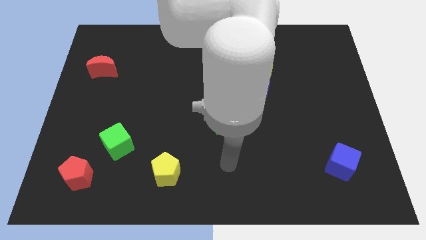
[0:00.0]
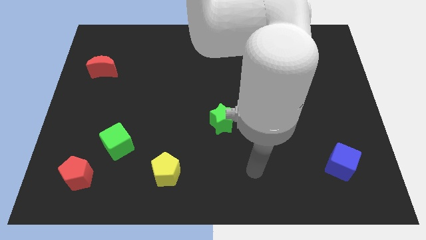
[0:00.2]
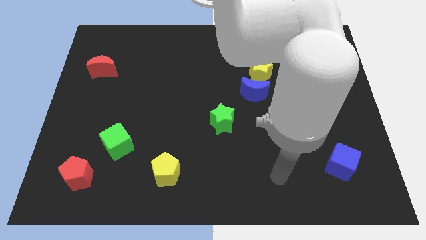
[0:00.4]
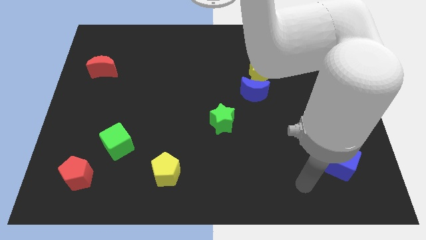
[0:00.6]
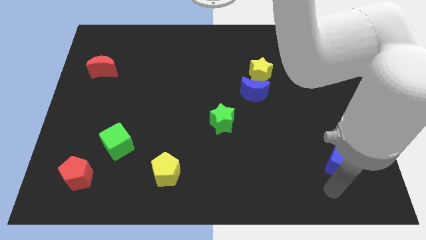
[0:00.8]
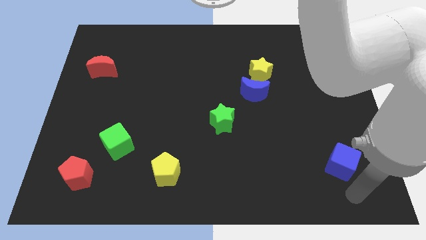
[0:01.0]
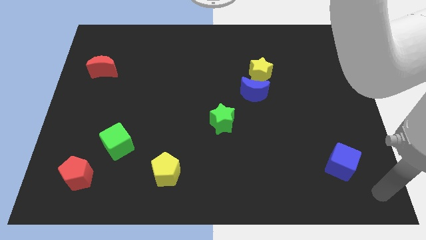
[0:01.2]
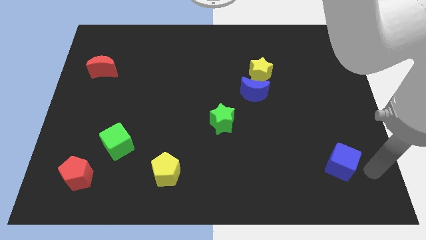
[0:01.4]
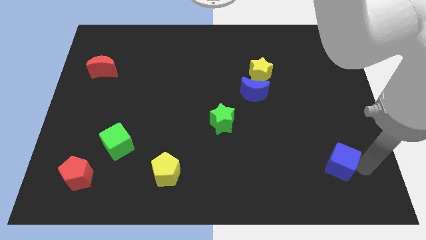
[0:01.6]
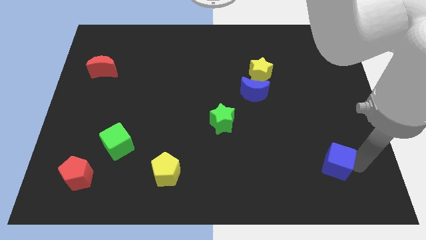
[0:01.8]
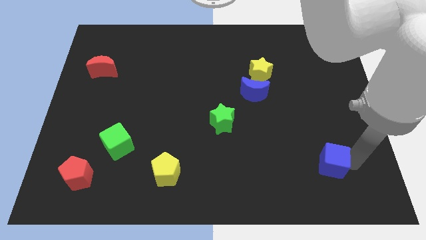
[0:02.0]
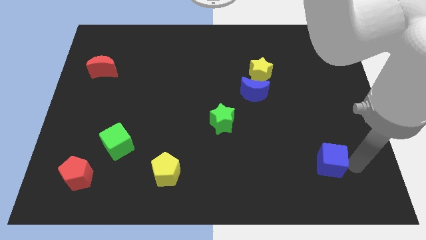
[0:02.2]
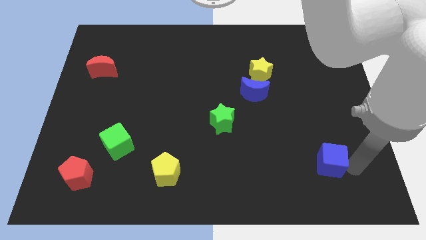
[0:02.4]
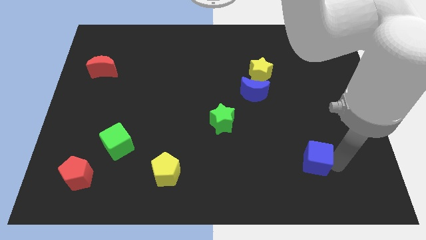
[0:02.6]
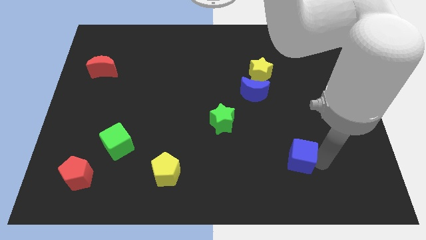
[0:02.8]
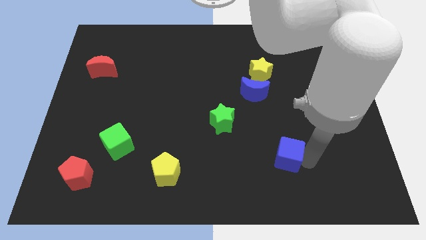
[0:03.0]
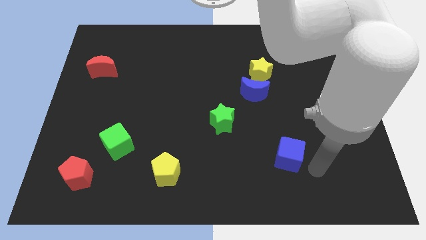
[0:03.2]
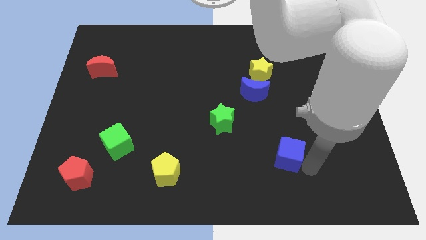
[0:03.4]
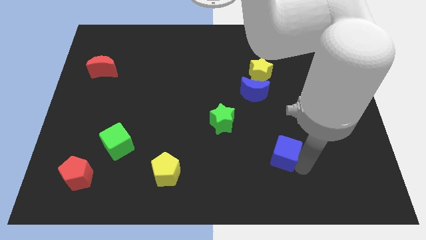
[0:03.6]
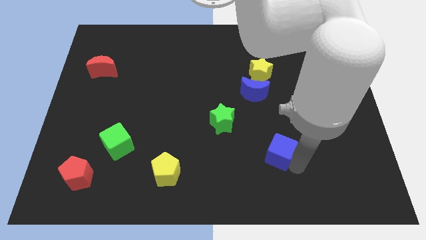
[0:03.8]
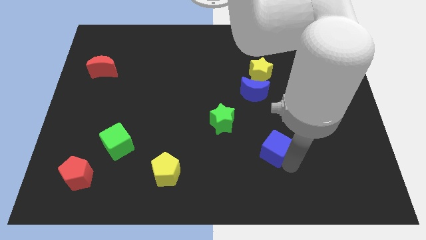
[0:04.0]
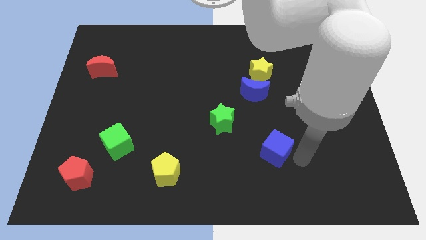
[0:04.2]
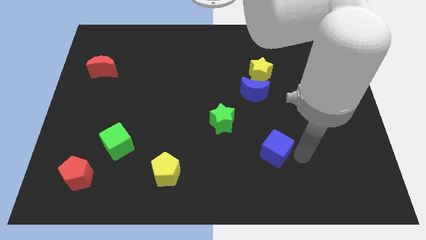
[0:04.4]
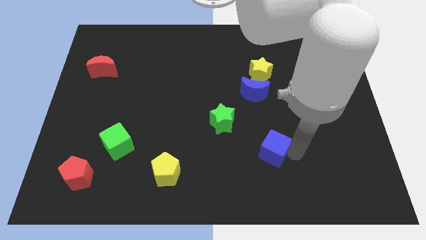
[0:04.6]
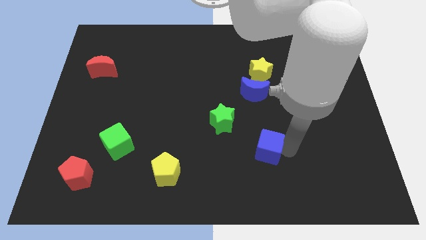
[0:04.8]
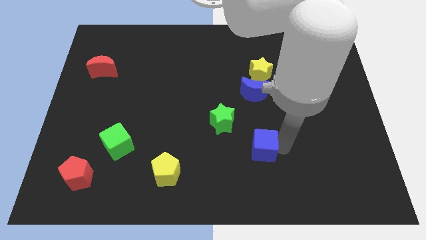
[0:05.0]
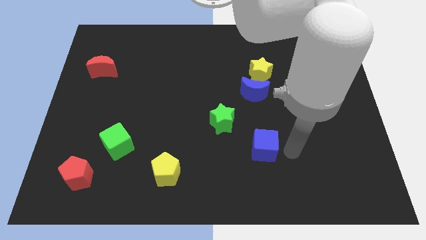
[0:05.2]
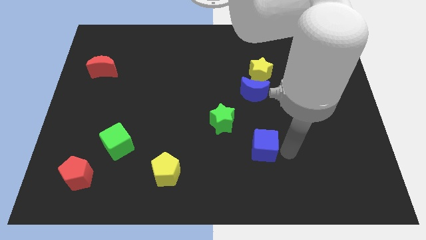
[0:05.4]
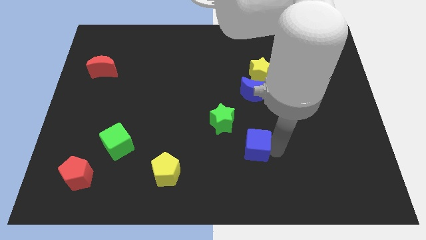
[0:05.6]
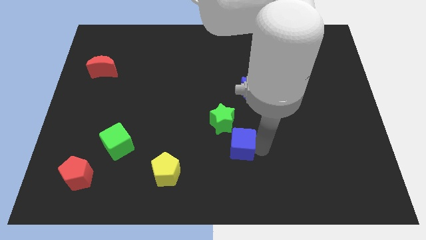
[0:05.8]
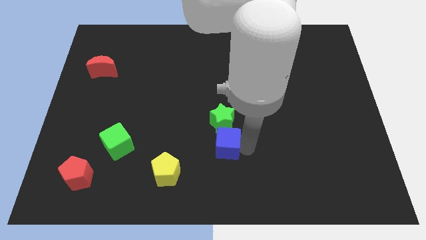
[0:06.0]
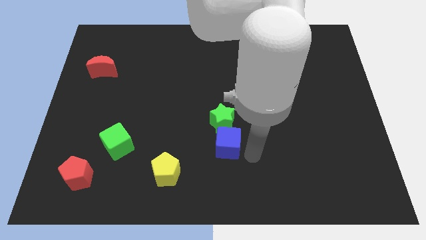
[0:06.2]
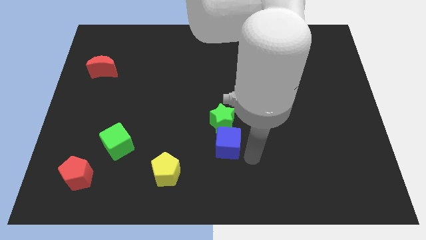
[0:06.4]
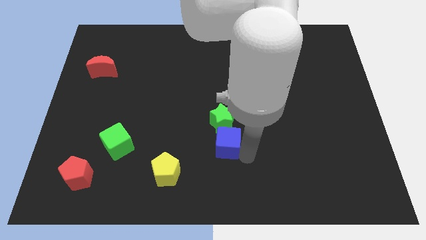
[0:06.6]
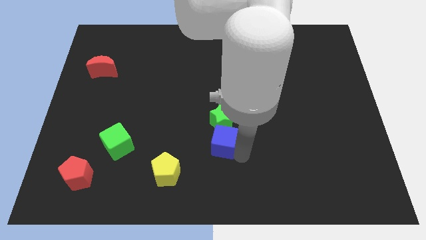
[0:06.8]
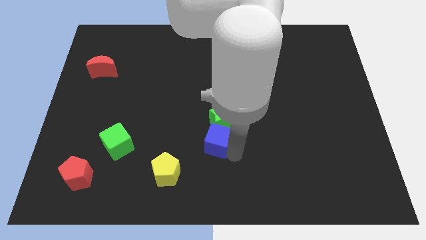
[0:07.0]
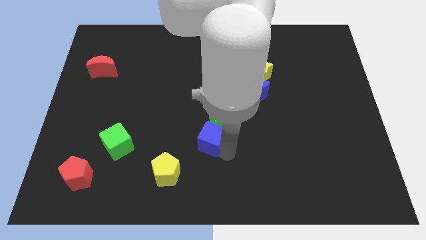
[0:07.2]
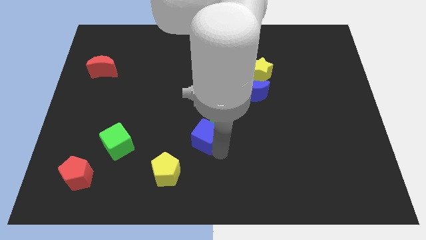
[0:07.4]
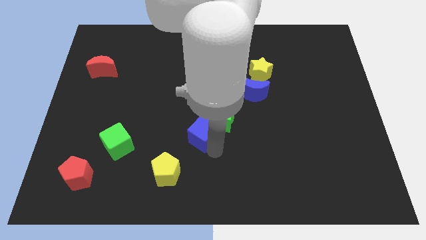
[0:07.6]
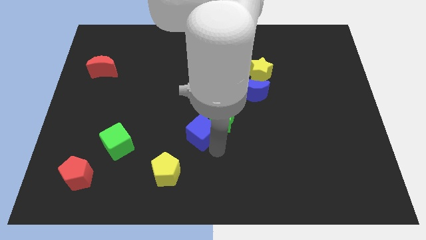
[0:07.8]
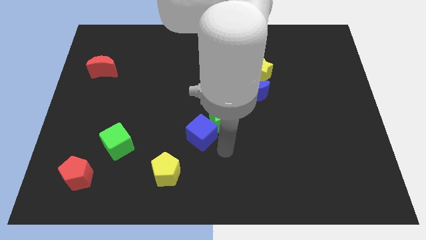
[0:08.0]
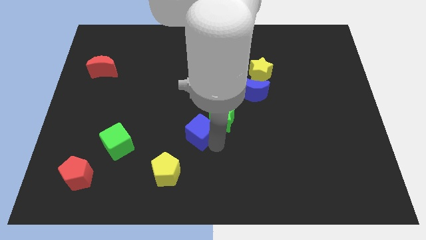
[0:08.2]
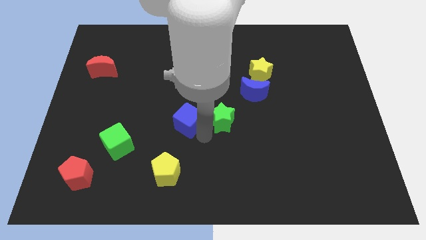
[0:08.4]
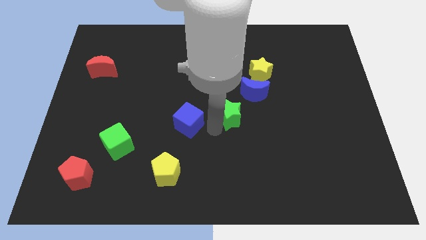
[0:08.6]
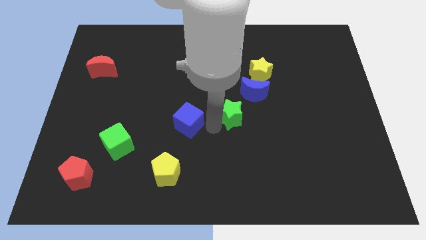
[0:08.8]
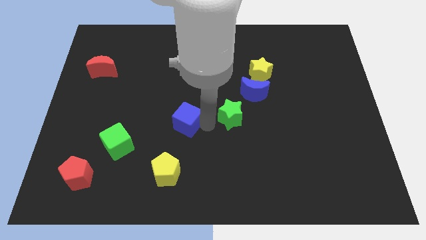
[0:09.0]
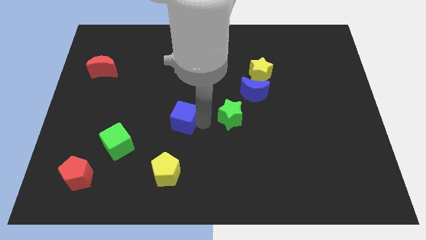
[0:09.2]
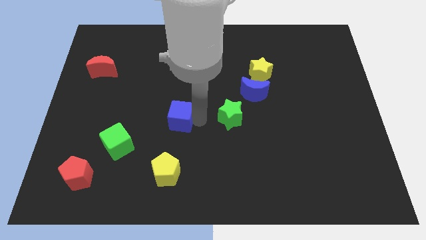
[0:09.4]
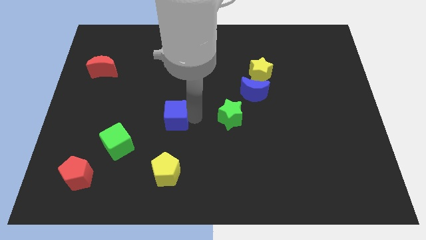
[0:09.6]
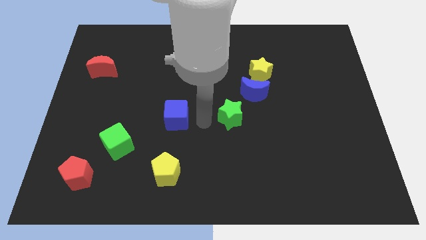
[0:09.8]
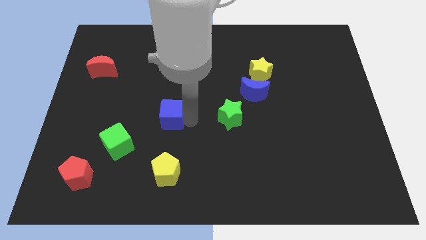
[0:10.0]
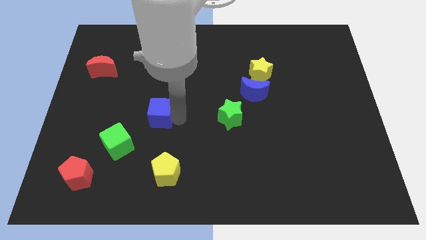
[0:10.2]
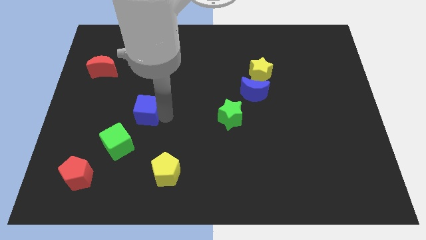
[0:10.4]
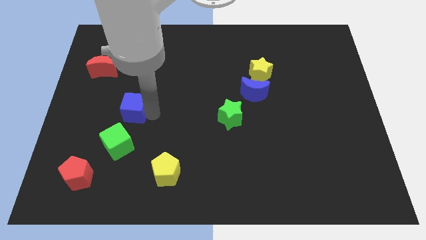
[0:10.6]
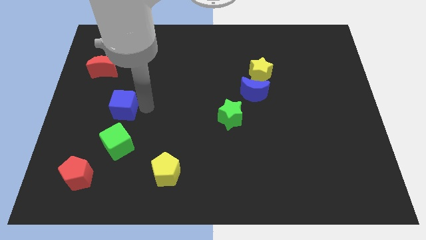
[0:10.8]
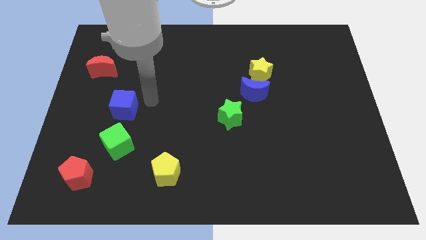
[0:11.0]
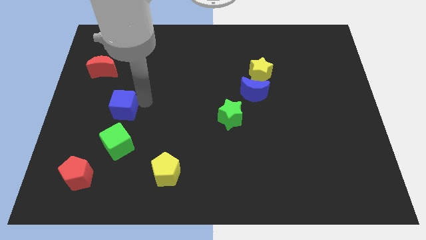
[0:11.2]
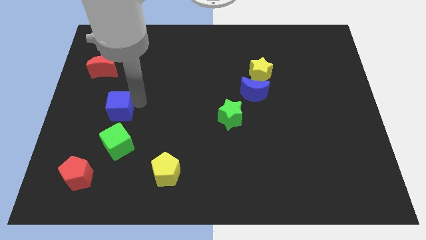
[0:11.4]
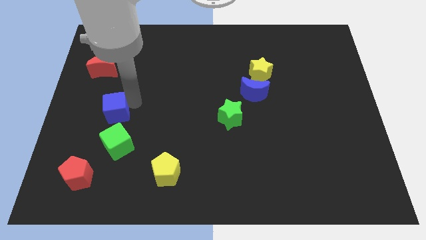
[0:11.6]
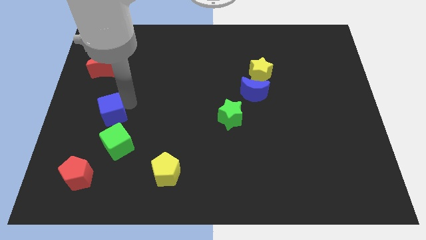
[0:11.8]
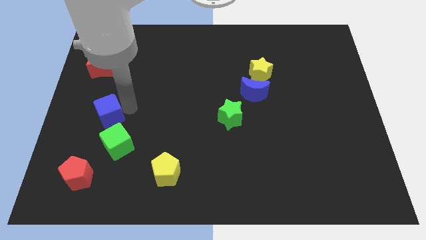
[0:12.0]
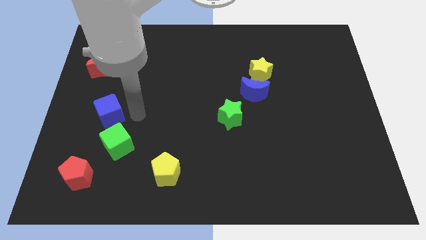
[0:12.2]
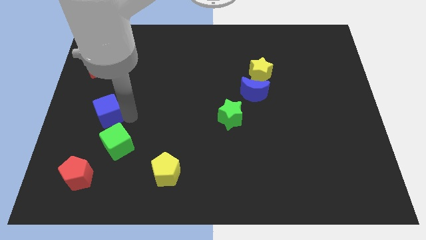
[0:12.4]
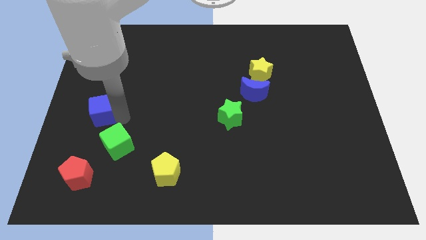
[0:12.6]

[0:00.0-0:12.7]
move the blue cube to the left side
